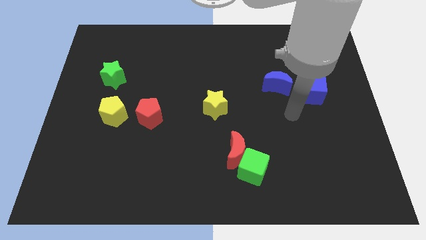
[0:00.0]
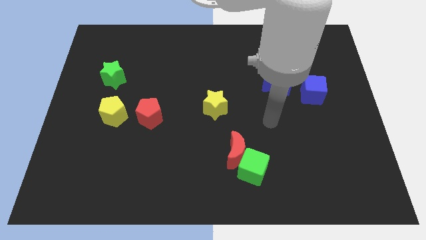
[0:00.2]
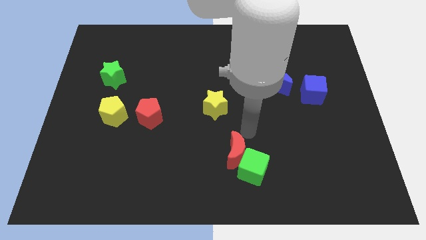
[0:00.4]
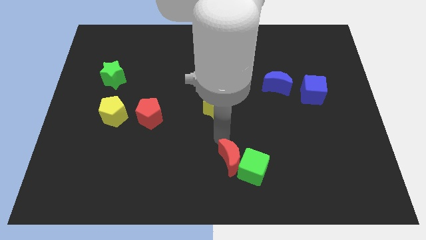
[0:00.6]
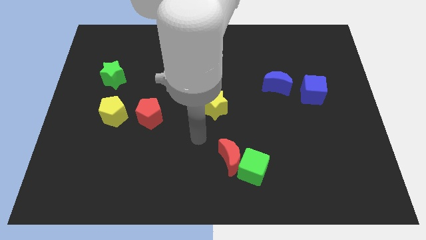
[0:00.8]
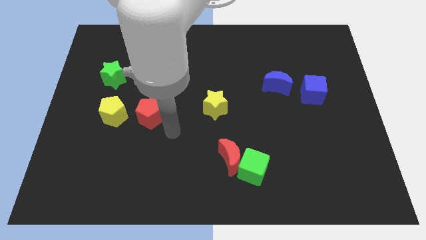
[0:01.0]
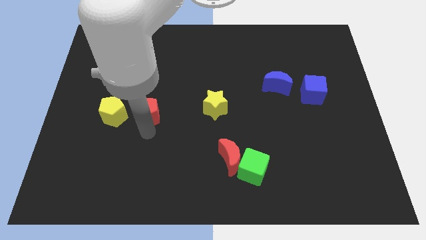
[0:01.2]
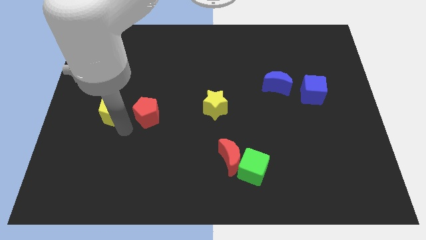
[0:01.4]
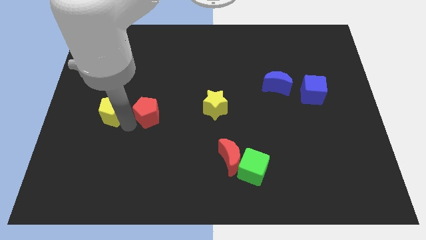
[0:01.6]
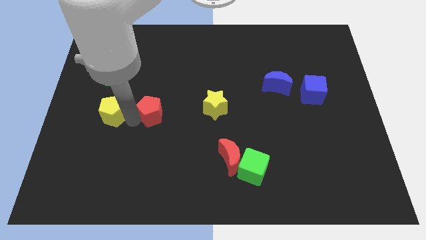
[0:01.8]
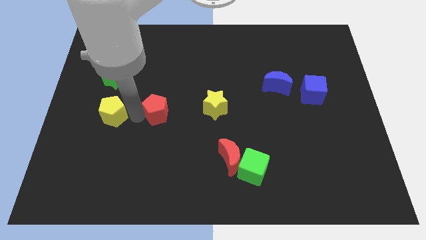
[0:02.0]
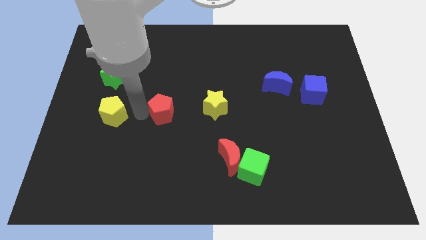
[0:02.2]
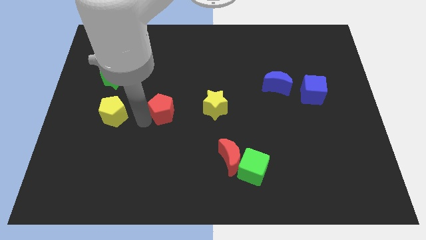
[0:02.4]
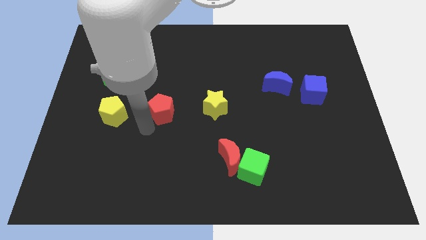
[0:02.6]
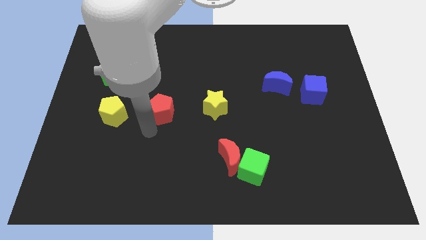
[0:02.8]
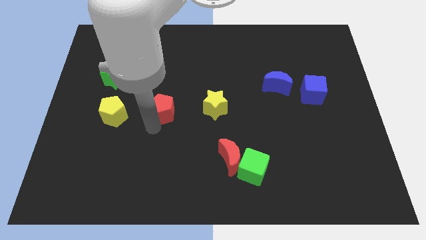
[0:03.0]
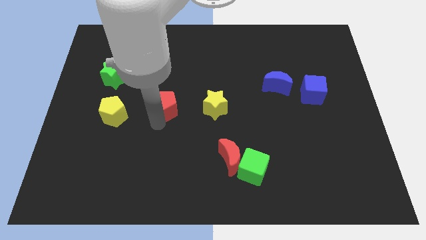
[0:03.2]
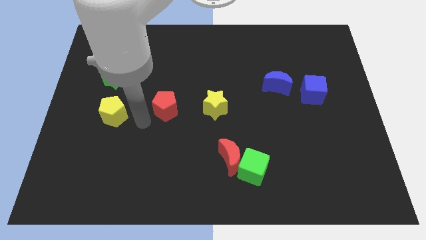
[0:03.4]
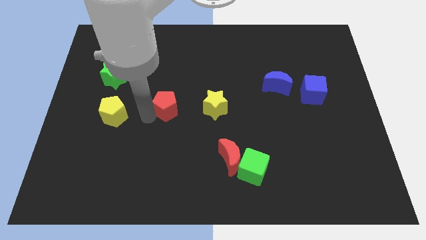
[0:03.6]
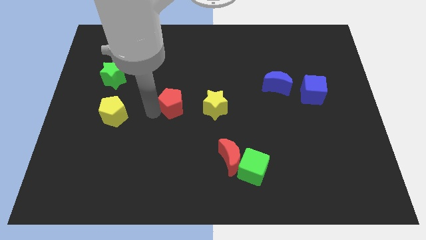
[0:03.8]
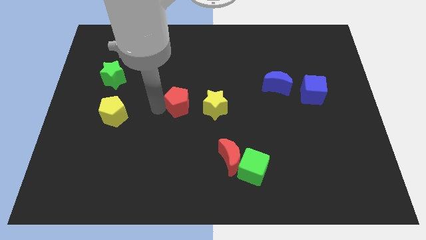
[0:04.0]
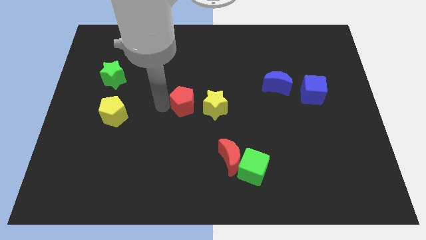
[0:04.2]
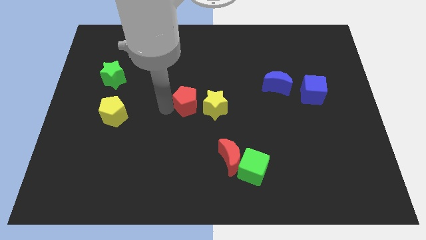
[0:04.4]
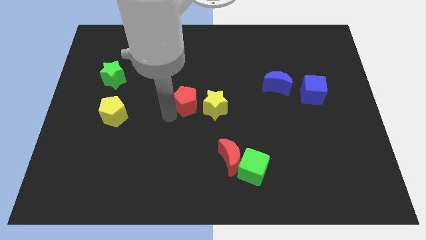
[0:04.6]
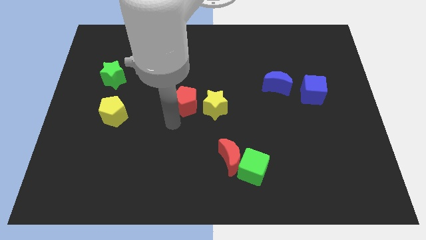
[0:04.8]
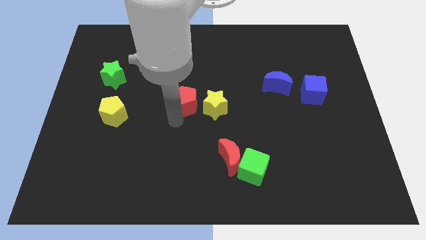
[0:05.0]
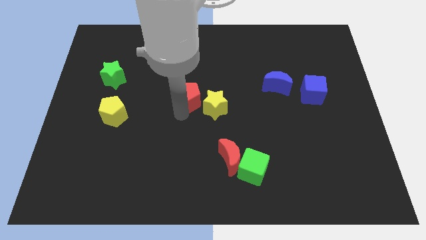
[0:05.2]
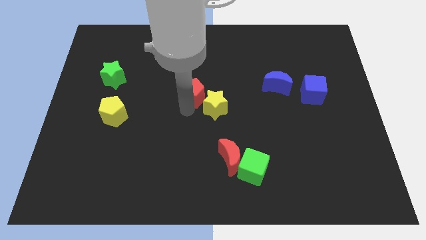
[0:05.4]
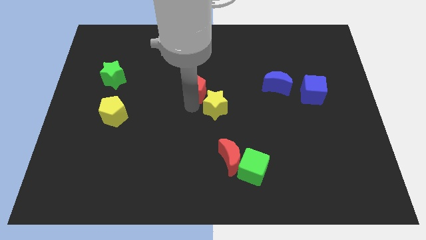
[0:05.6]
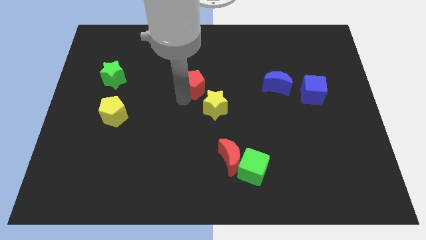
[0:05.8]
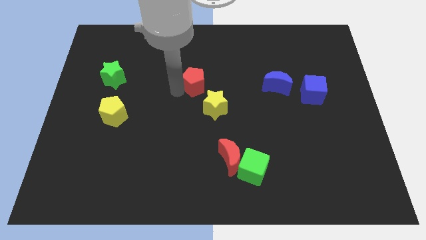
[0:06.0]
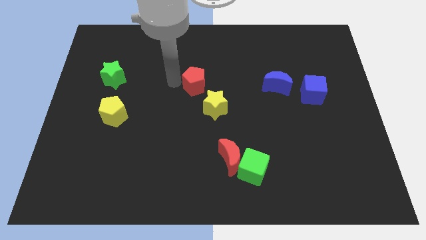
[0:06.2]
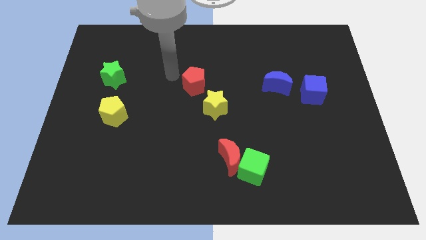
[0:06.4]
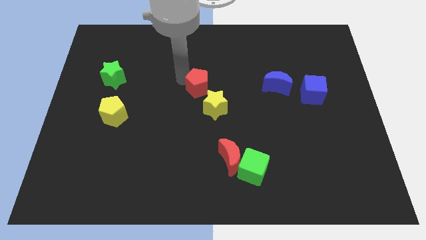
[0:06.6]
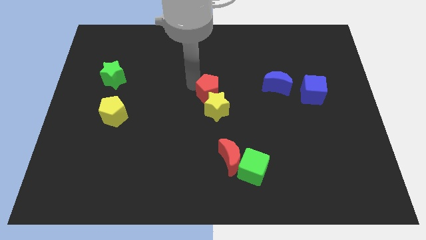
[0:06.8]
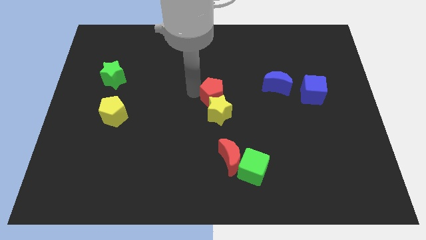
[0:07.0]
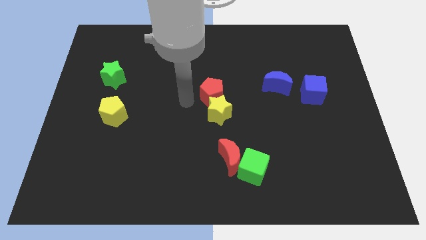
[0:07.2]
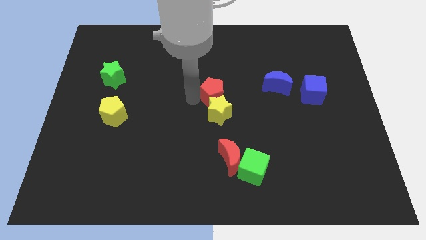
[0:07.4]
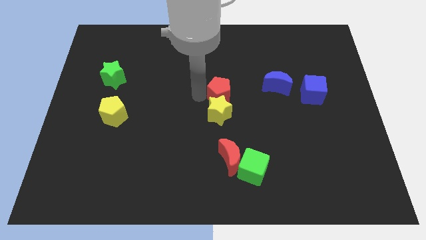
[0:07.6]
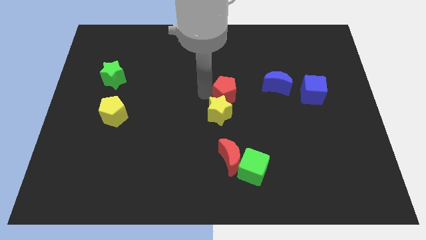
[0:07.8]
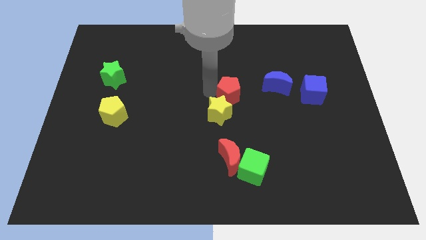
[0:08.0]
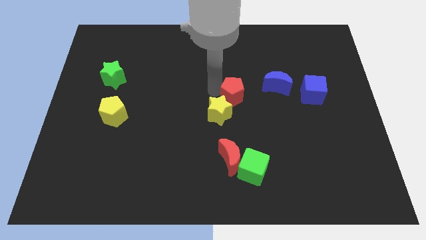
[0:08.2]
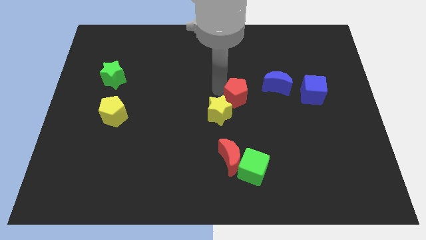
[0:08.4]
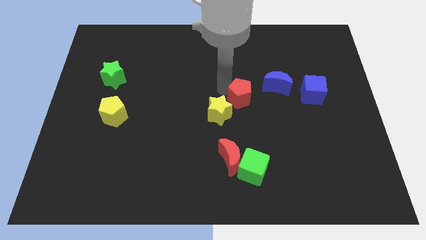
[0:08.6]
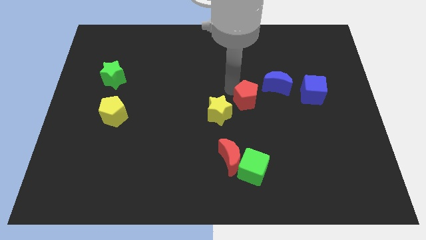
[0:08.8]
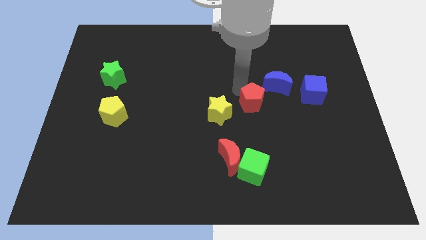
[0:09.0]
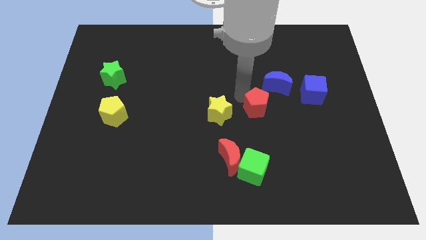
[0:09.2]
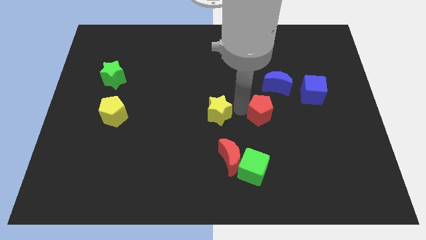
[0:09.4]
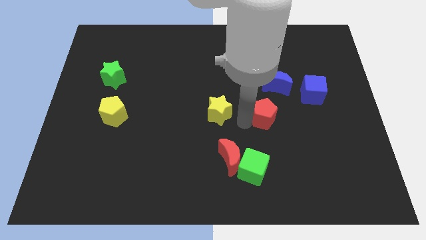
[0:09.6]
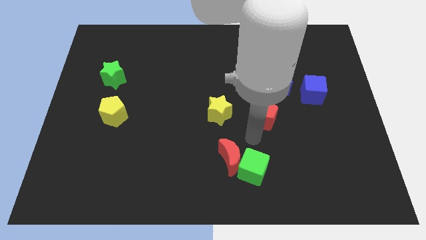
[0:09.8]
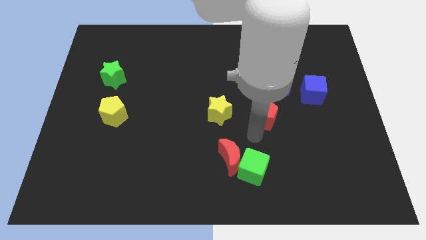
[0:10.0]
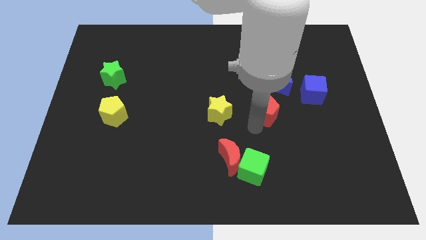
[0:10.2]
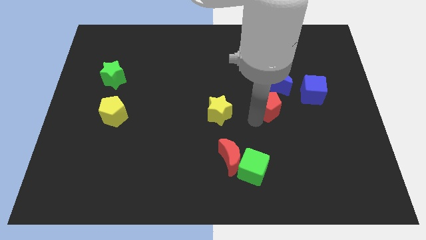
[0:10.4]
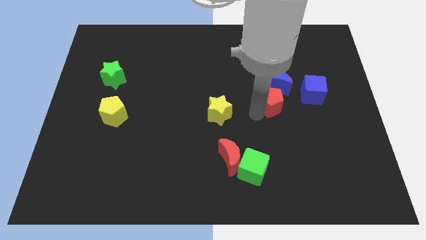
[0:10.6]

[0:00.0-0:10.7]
move the red pentagon close to the blue moon

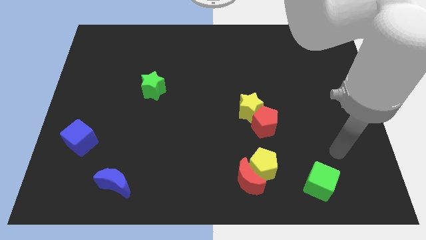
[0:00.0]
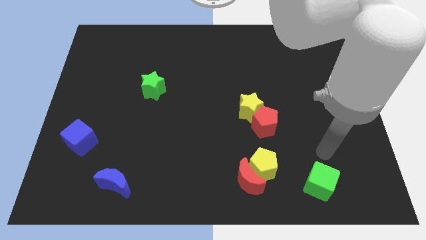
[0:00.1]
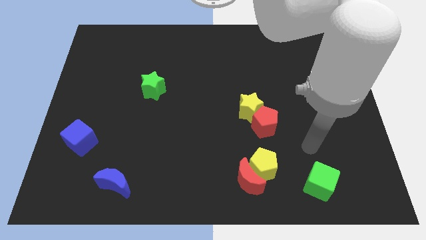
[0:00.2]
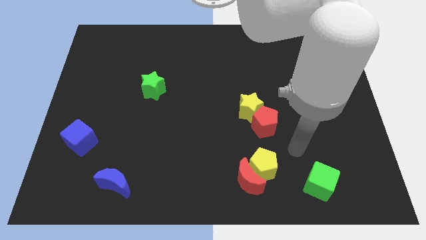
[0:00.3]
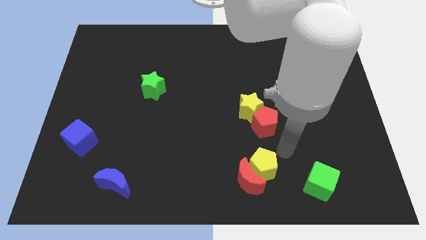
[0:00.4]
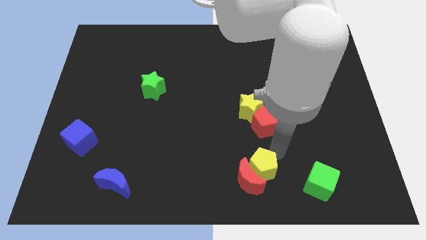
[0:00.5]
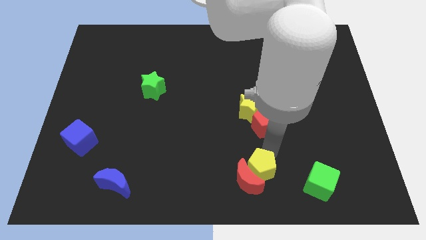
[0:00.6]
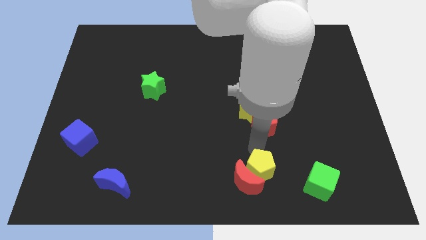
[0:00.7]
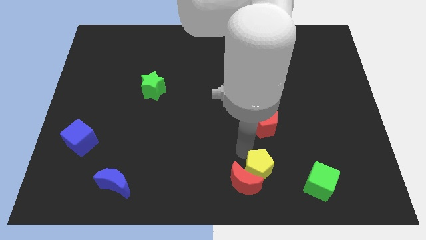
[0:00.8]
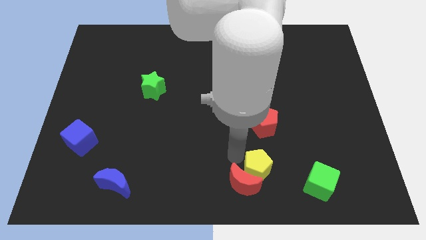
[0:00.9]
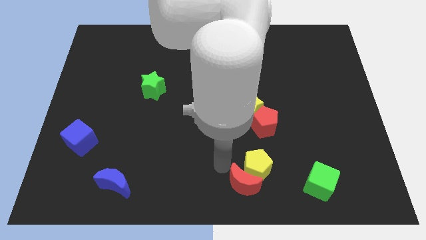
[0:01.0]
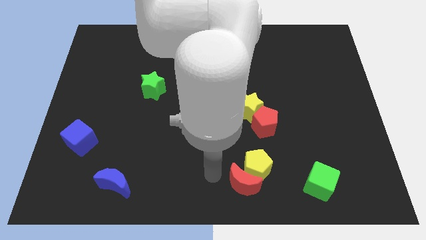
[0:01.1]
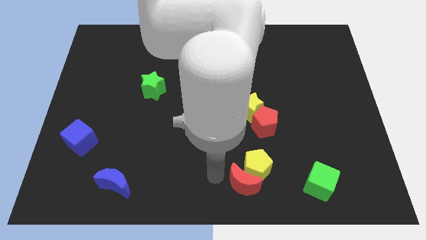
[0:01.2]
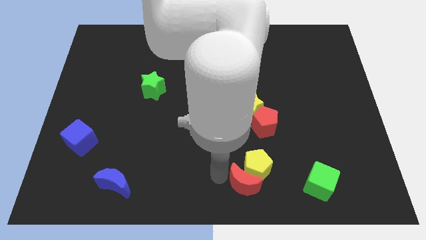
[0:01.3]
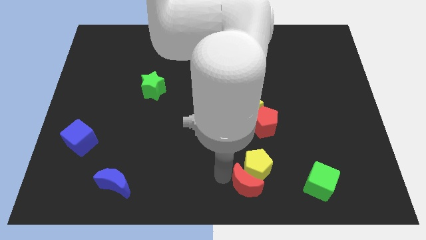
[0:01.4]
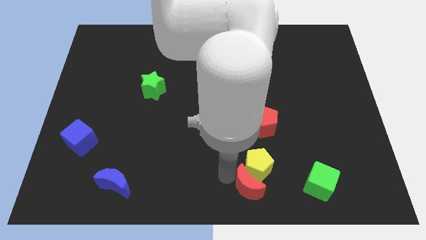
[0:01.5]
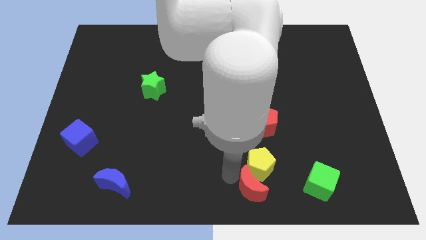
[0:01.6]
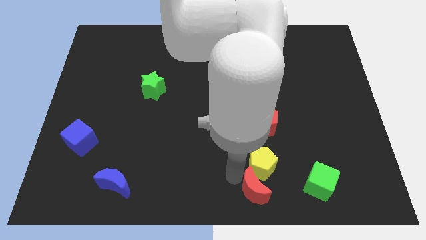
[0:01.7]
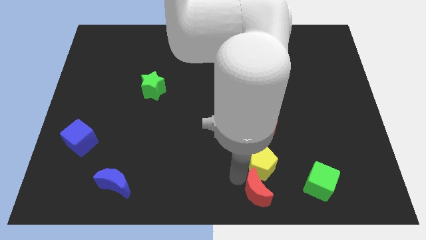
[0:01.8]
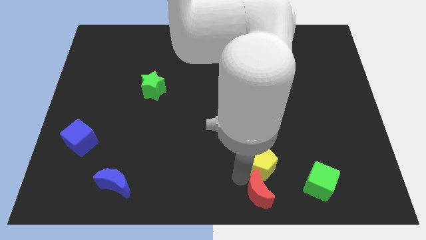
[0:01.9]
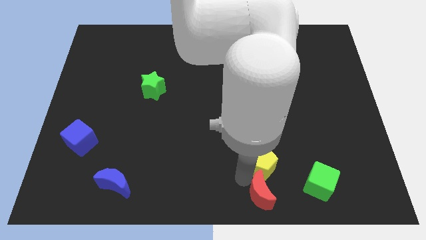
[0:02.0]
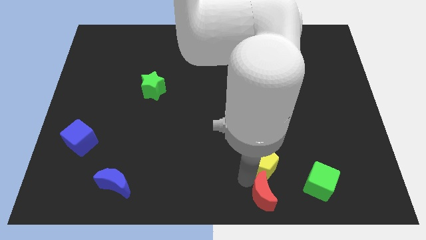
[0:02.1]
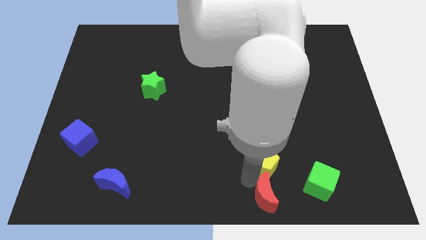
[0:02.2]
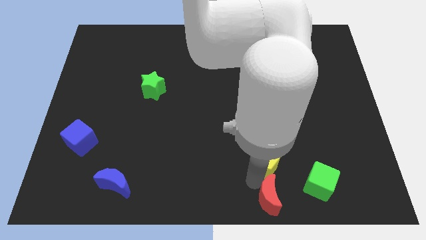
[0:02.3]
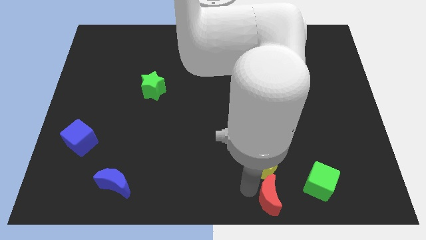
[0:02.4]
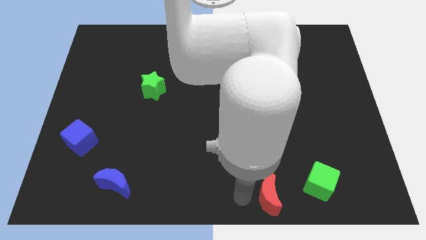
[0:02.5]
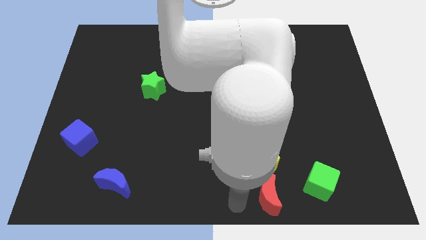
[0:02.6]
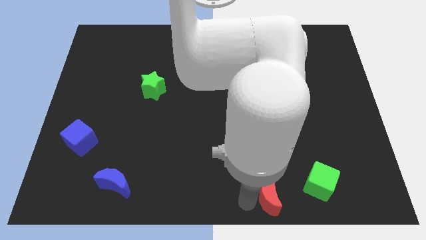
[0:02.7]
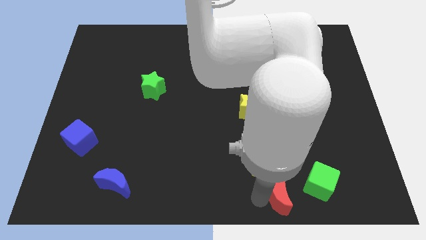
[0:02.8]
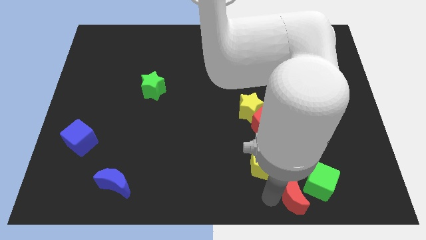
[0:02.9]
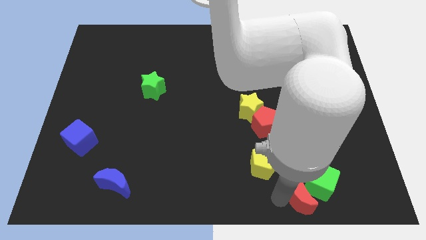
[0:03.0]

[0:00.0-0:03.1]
put the red moon towards the green cube
